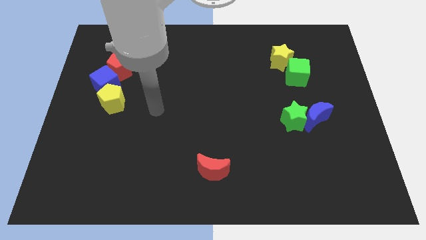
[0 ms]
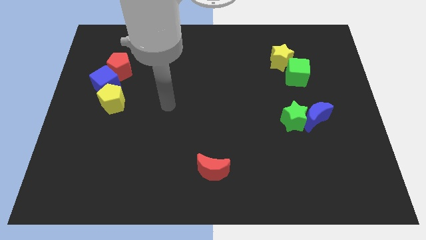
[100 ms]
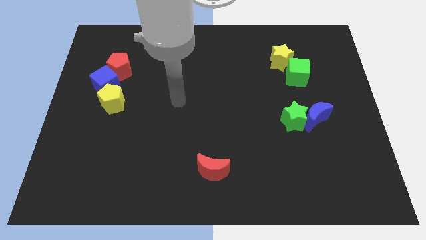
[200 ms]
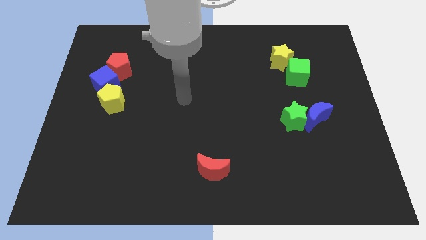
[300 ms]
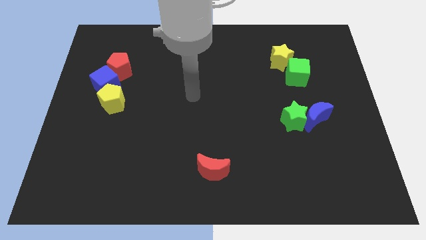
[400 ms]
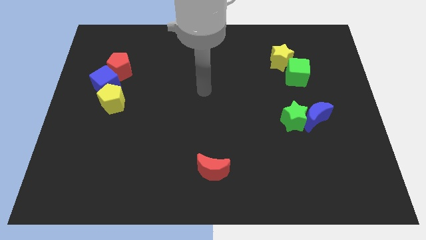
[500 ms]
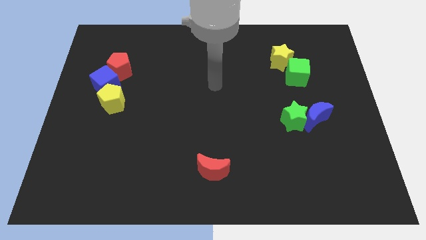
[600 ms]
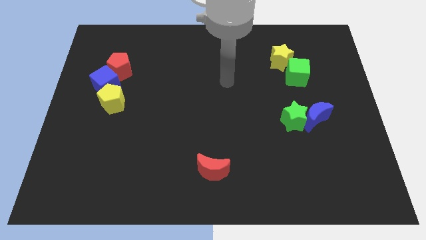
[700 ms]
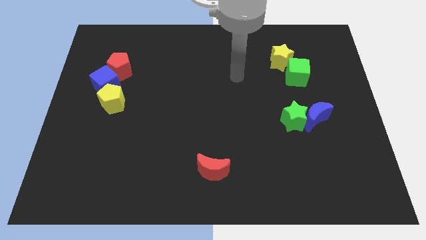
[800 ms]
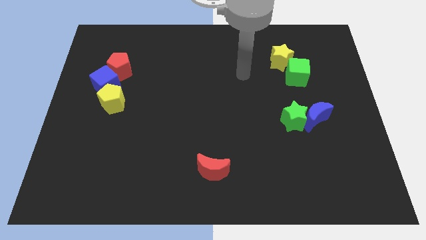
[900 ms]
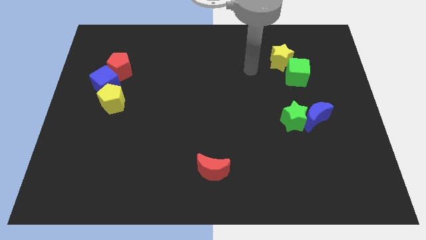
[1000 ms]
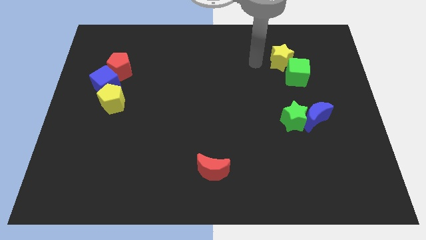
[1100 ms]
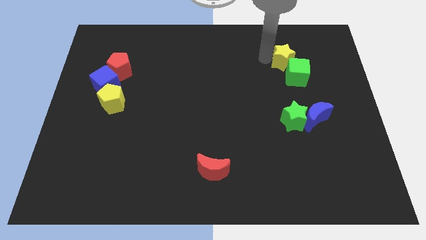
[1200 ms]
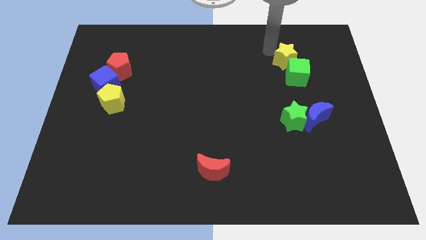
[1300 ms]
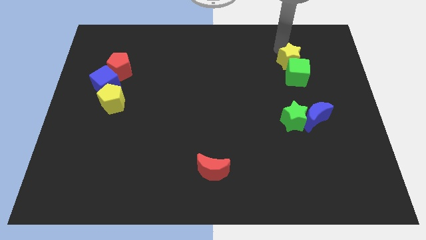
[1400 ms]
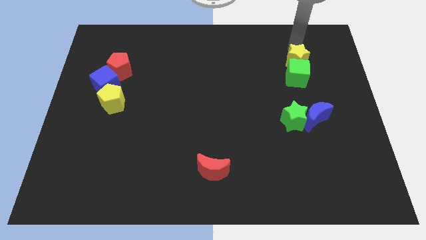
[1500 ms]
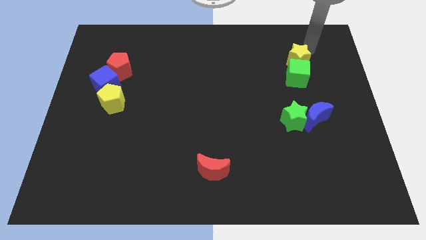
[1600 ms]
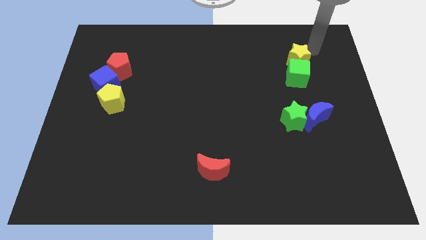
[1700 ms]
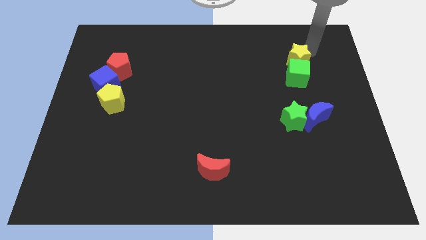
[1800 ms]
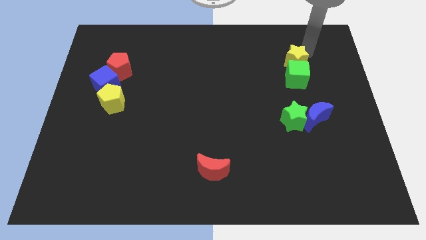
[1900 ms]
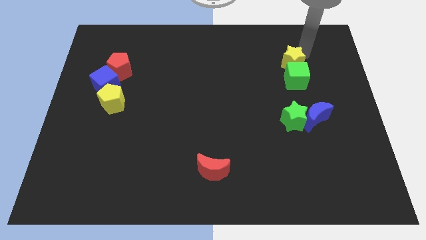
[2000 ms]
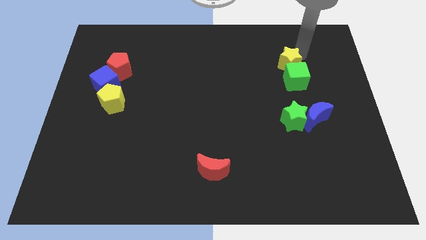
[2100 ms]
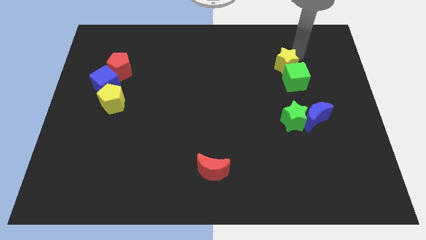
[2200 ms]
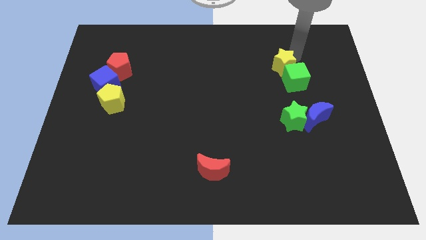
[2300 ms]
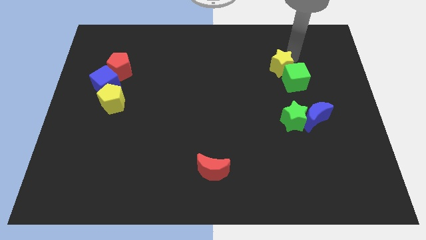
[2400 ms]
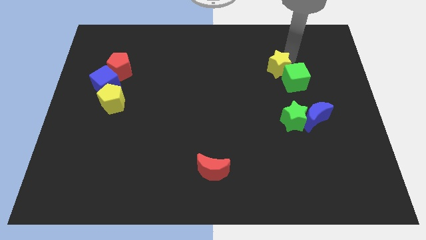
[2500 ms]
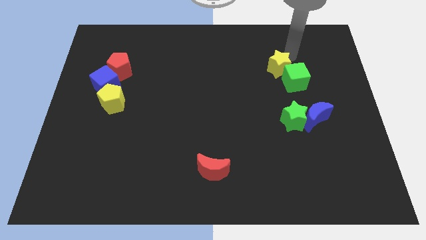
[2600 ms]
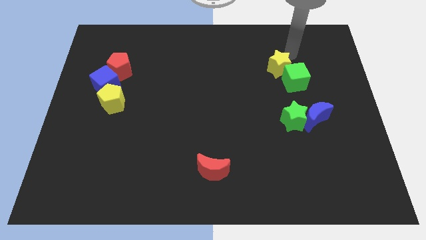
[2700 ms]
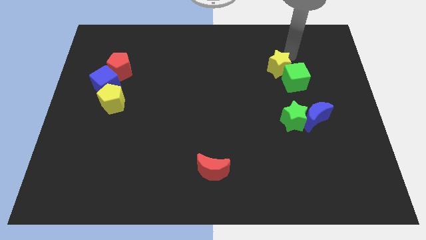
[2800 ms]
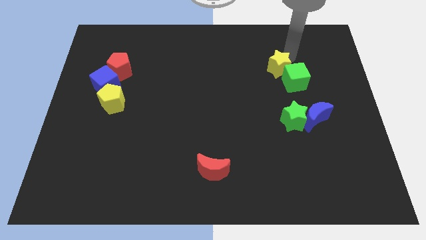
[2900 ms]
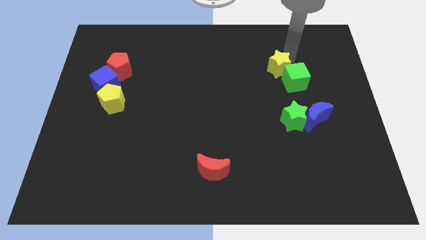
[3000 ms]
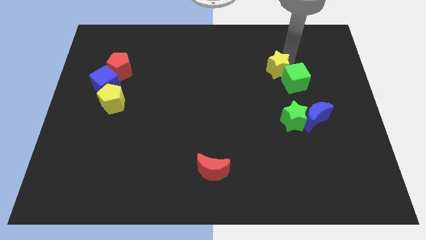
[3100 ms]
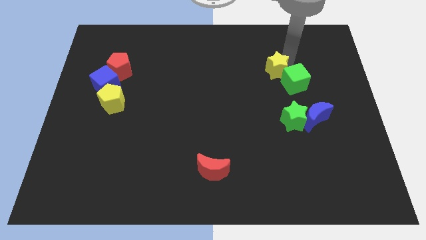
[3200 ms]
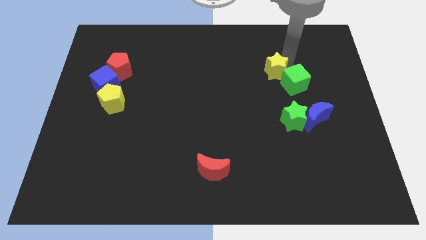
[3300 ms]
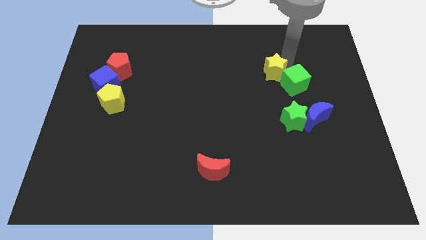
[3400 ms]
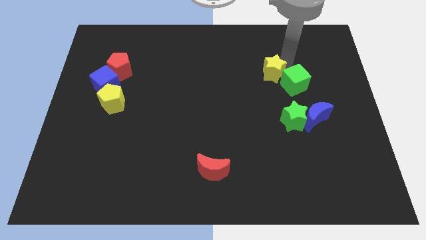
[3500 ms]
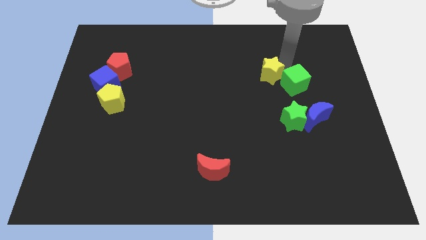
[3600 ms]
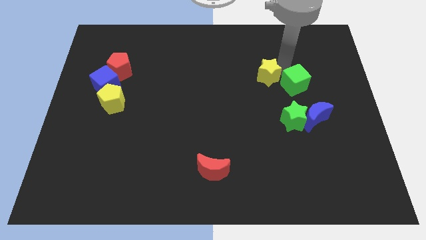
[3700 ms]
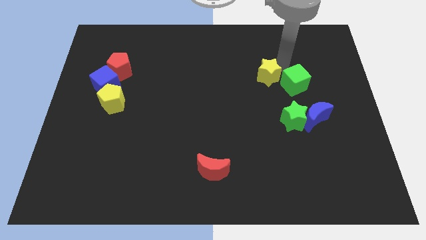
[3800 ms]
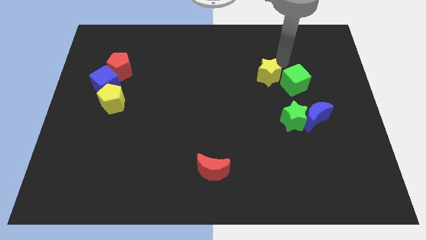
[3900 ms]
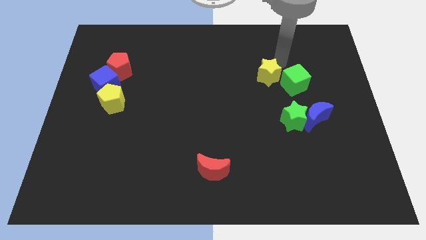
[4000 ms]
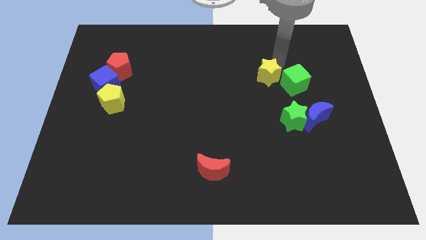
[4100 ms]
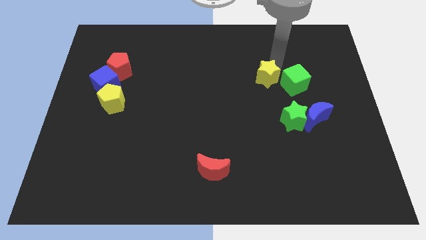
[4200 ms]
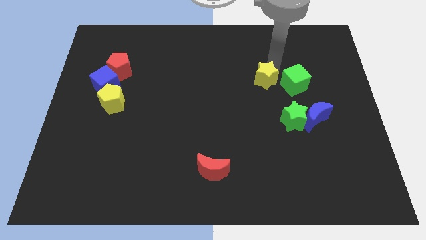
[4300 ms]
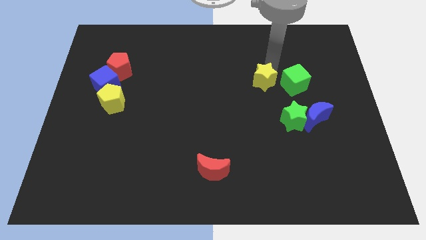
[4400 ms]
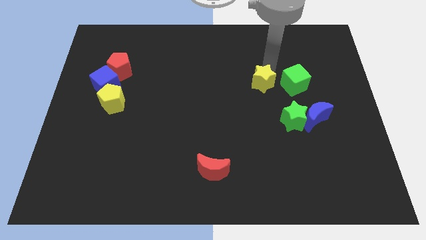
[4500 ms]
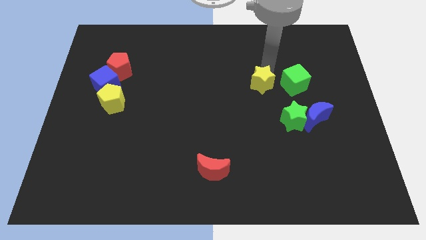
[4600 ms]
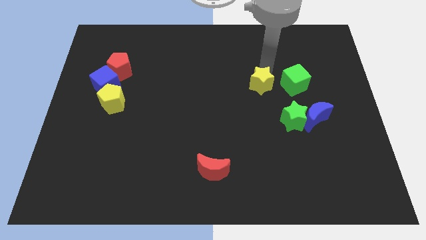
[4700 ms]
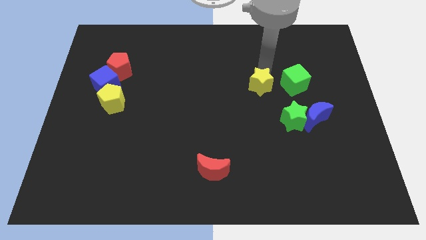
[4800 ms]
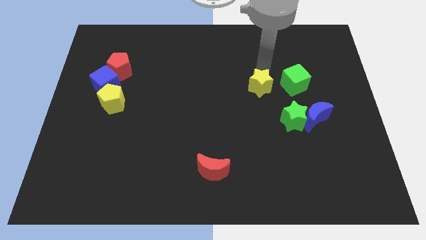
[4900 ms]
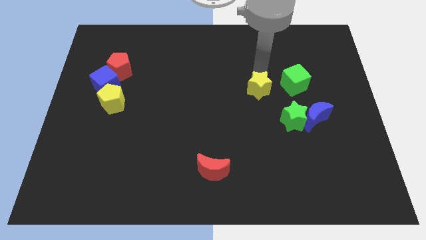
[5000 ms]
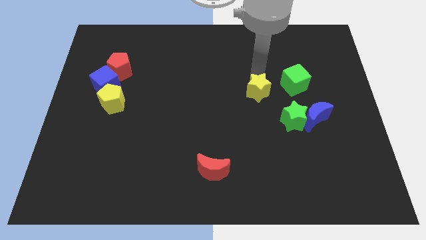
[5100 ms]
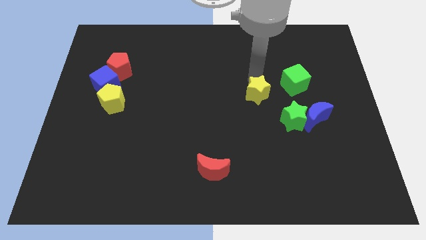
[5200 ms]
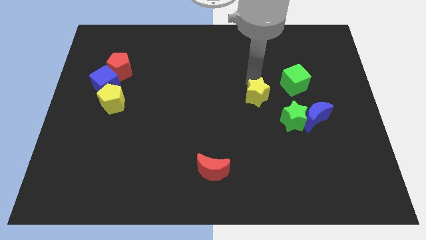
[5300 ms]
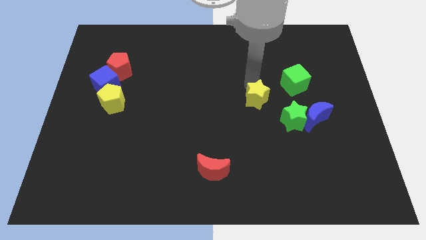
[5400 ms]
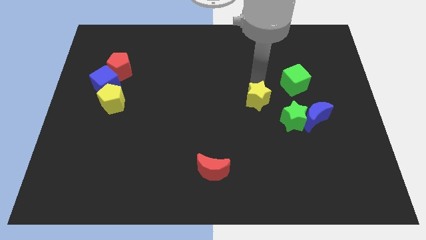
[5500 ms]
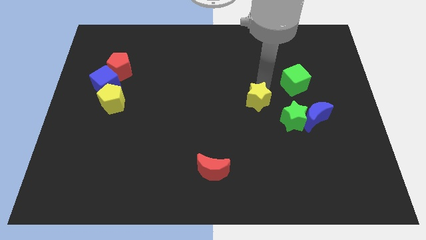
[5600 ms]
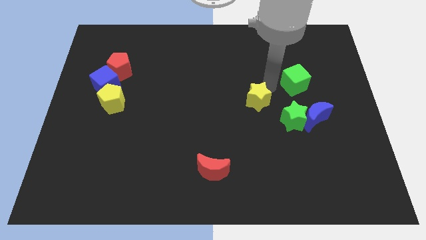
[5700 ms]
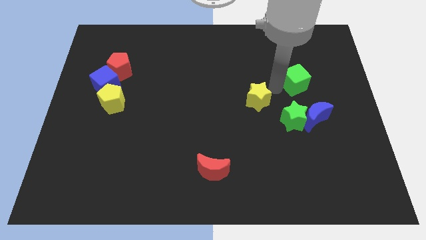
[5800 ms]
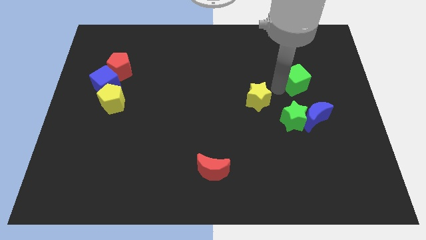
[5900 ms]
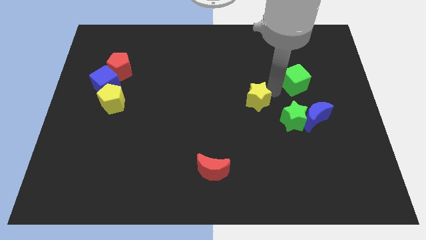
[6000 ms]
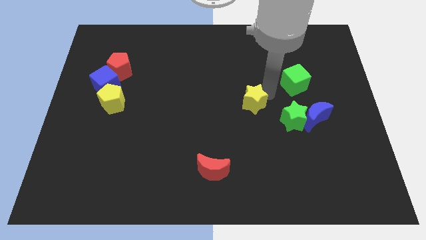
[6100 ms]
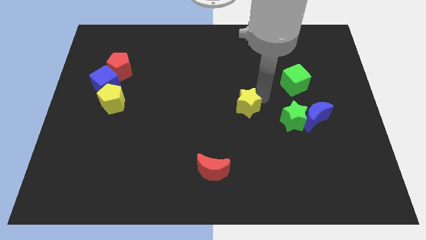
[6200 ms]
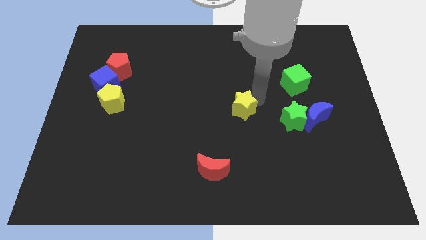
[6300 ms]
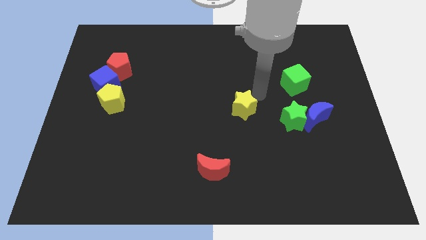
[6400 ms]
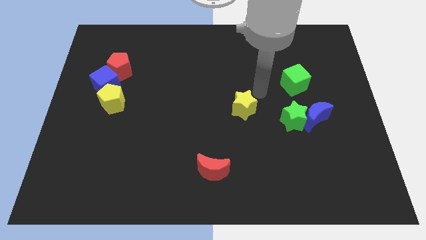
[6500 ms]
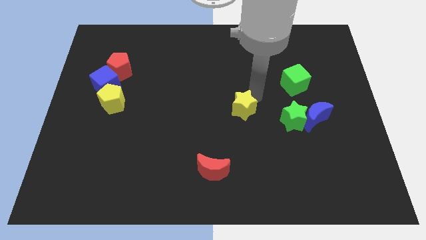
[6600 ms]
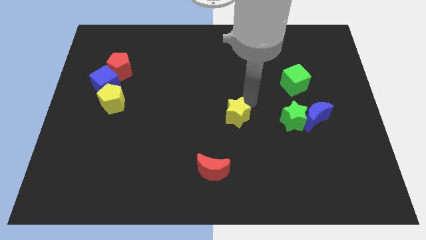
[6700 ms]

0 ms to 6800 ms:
push the yellow star downwards and left

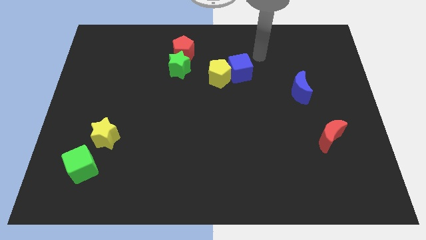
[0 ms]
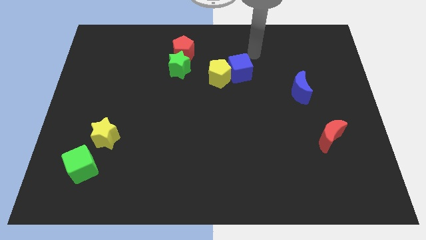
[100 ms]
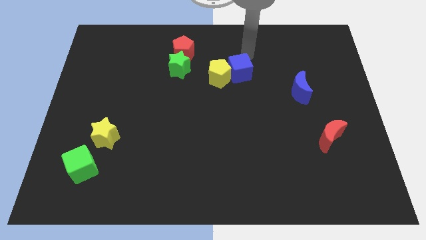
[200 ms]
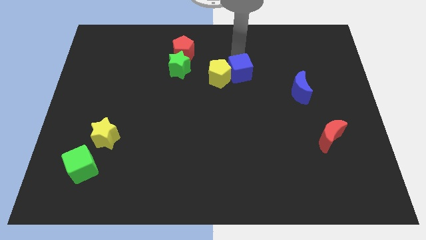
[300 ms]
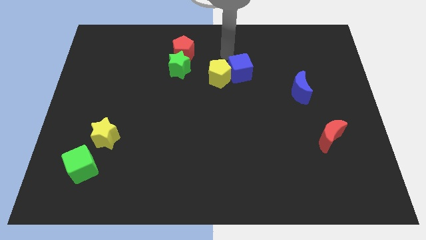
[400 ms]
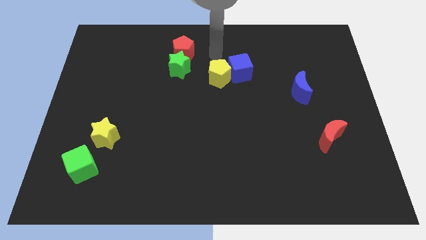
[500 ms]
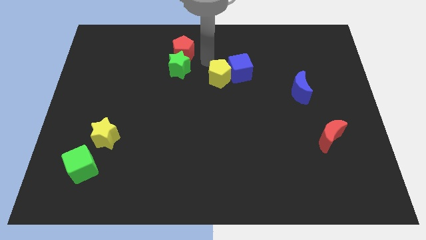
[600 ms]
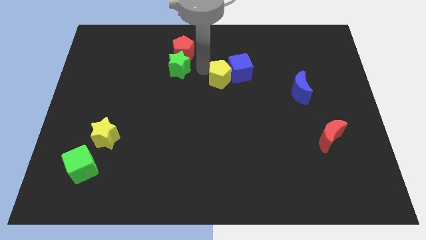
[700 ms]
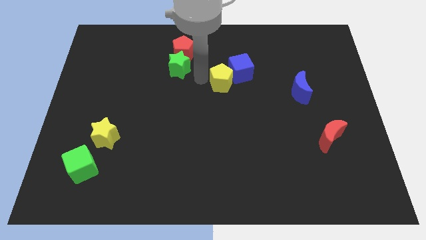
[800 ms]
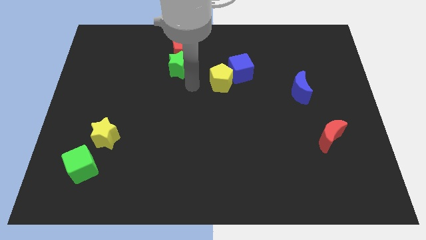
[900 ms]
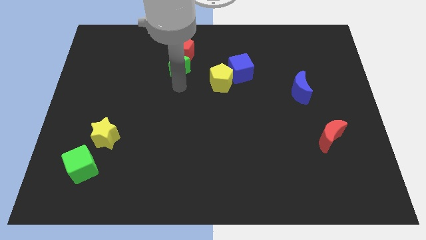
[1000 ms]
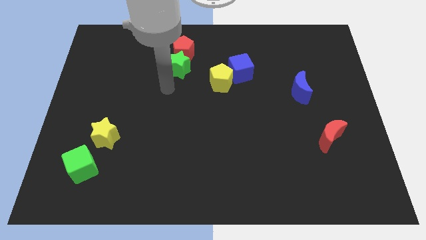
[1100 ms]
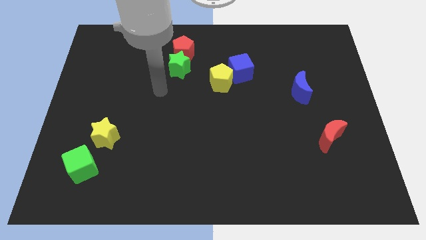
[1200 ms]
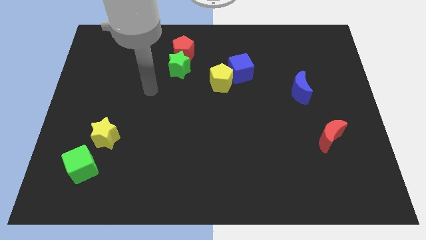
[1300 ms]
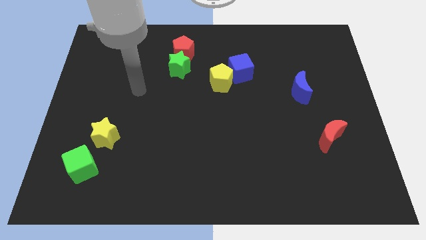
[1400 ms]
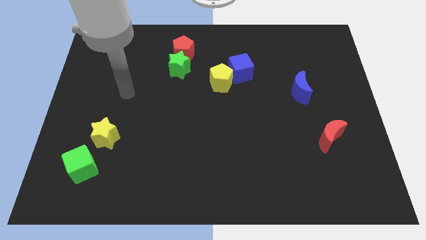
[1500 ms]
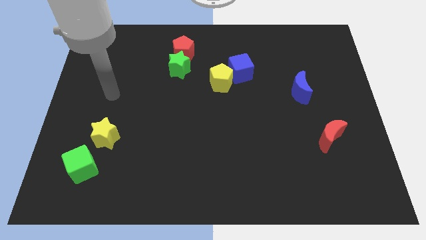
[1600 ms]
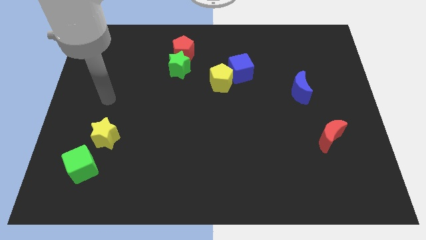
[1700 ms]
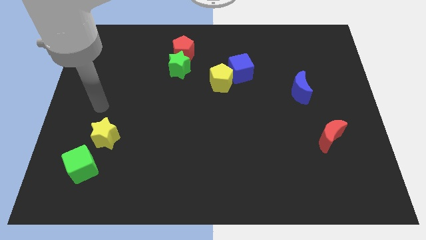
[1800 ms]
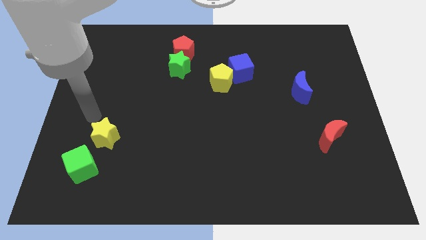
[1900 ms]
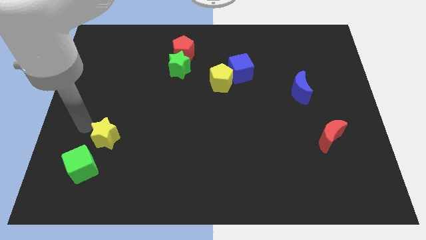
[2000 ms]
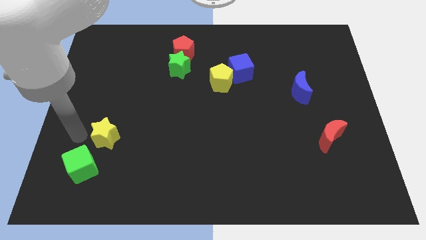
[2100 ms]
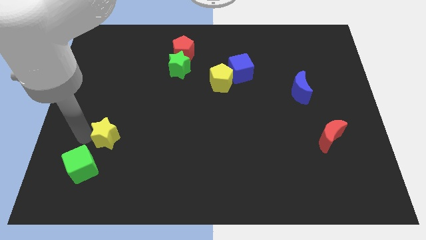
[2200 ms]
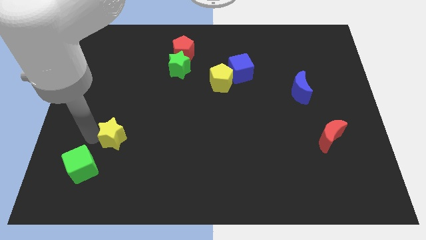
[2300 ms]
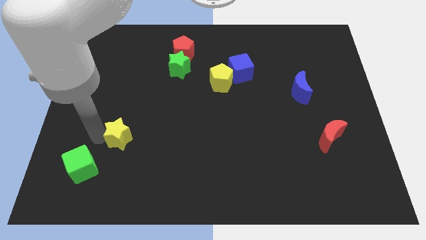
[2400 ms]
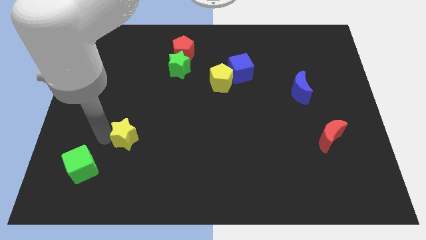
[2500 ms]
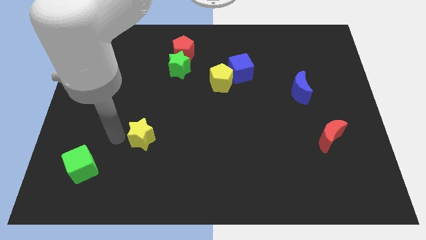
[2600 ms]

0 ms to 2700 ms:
move the yellow star to the right slightly
